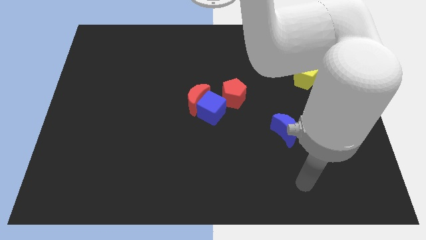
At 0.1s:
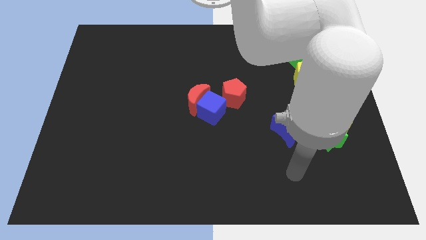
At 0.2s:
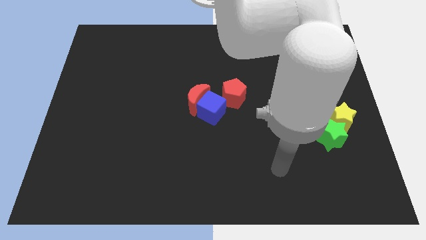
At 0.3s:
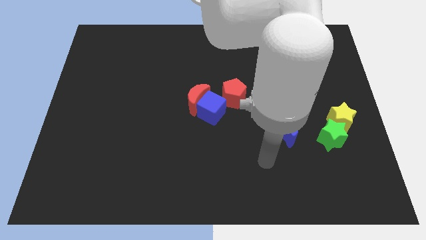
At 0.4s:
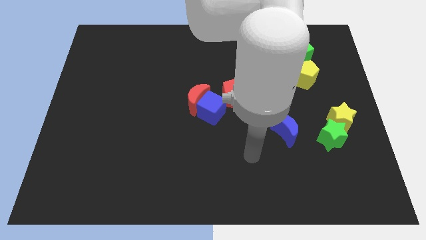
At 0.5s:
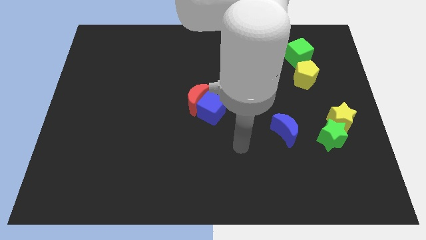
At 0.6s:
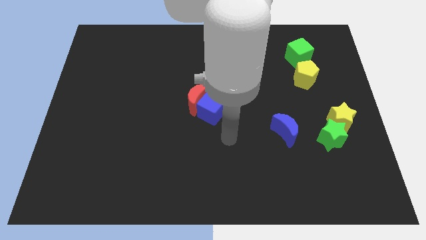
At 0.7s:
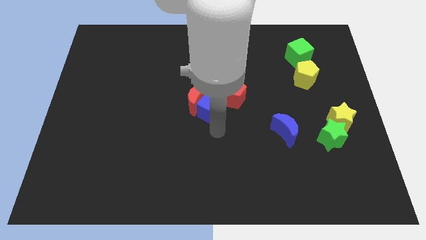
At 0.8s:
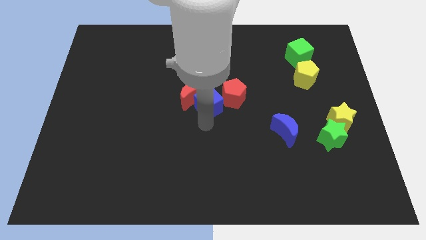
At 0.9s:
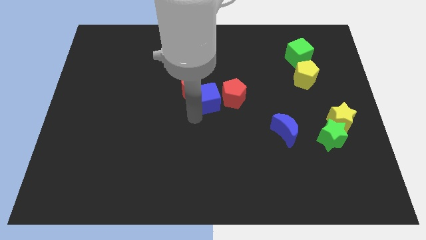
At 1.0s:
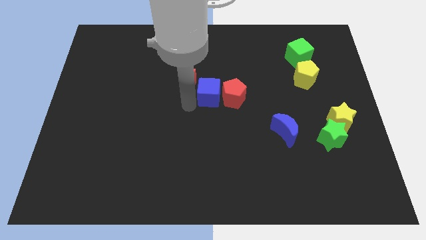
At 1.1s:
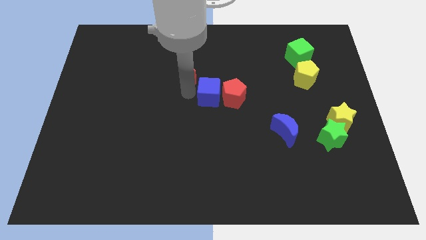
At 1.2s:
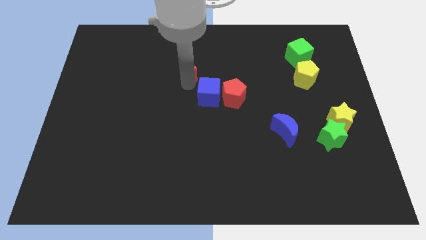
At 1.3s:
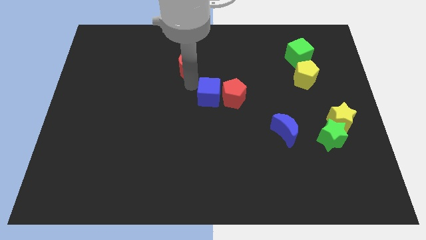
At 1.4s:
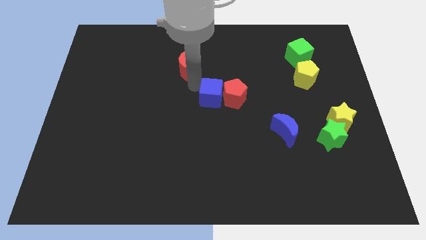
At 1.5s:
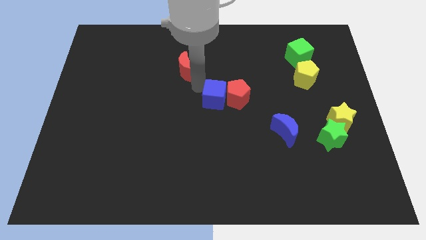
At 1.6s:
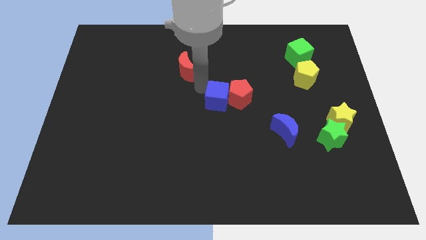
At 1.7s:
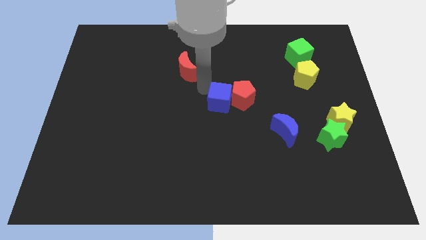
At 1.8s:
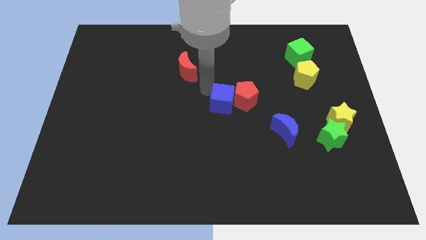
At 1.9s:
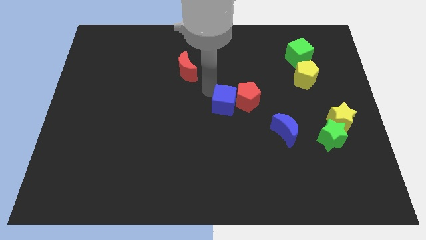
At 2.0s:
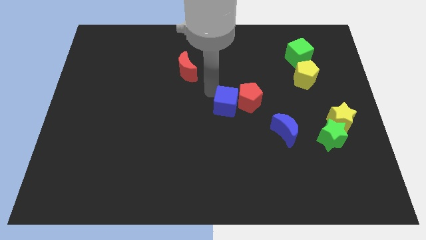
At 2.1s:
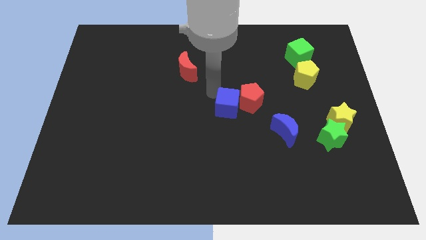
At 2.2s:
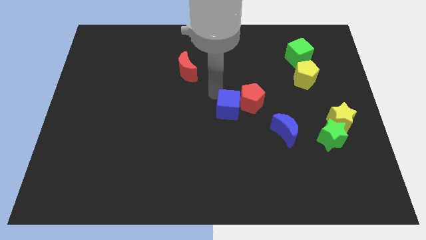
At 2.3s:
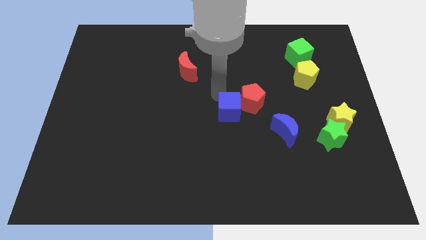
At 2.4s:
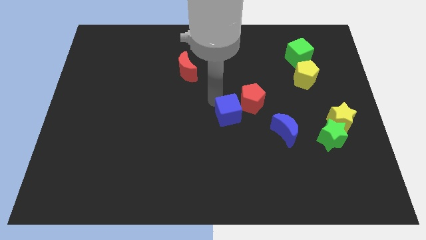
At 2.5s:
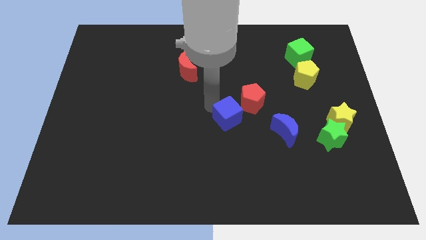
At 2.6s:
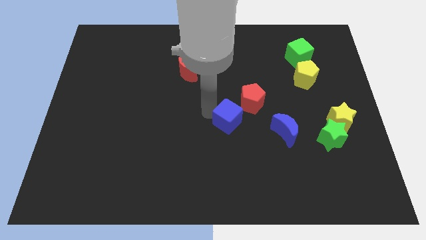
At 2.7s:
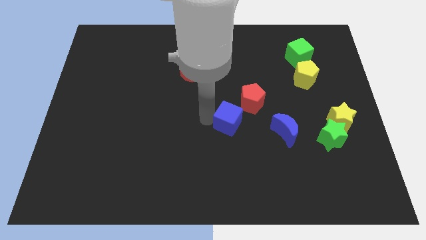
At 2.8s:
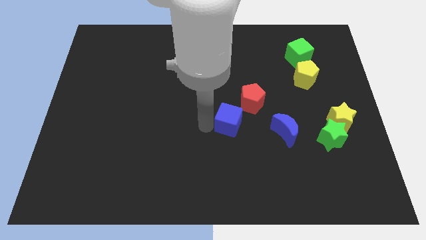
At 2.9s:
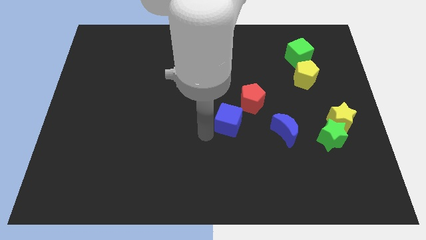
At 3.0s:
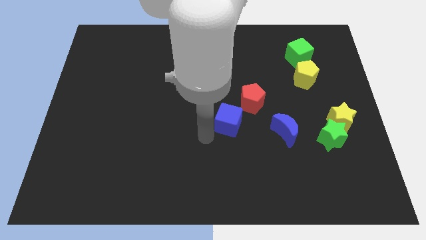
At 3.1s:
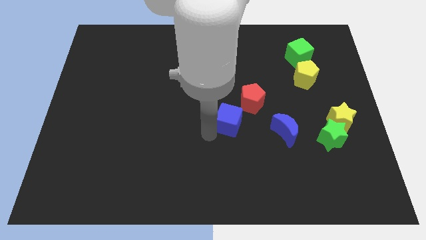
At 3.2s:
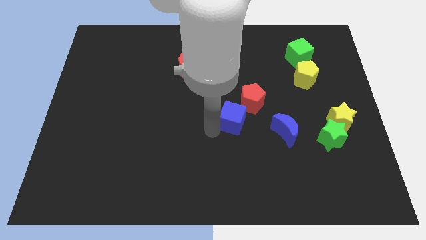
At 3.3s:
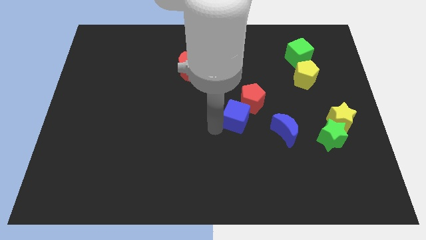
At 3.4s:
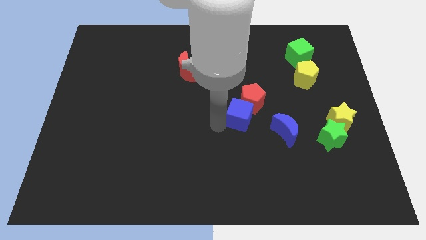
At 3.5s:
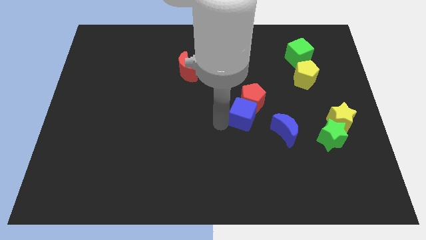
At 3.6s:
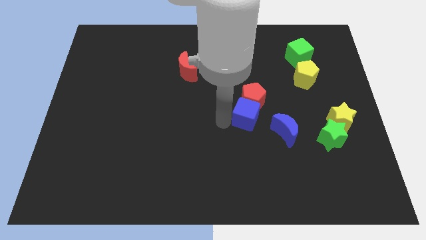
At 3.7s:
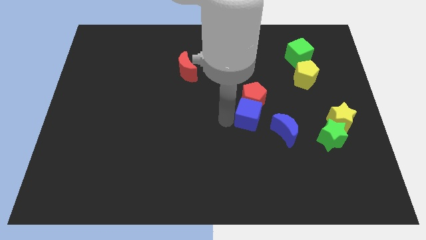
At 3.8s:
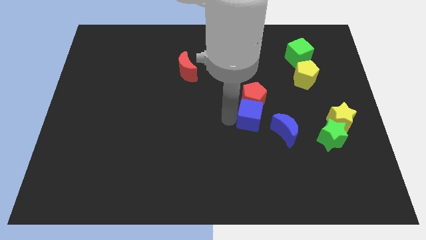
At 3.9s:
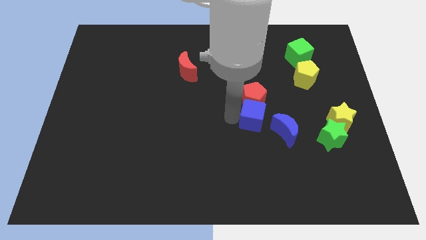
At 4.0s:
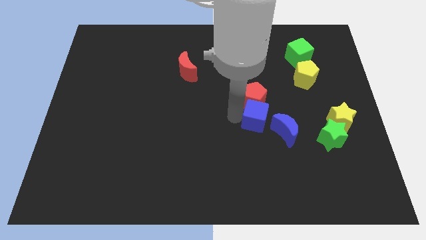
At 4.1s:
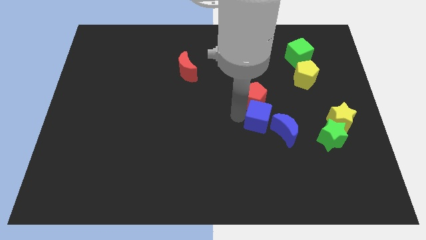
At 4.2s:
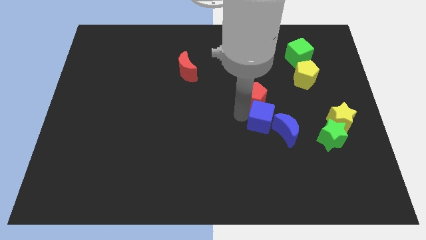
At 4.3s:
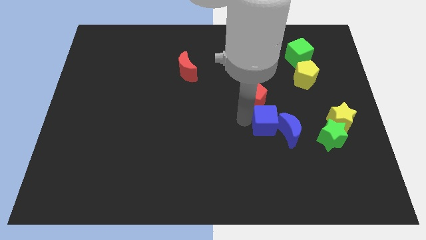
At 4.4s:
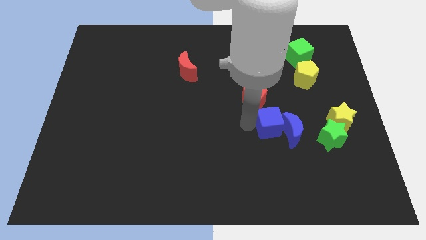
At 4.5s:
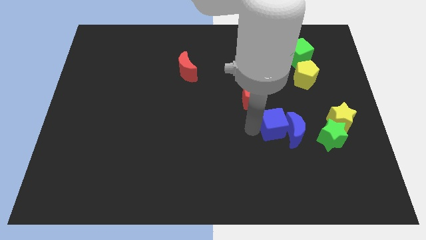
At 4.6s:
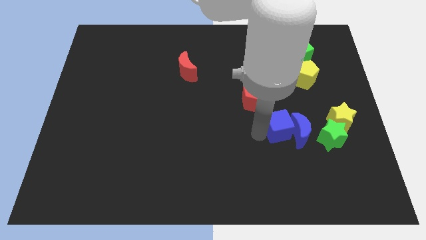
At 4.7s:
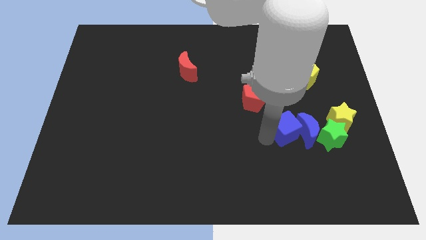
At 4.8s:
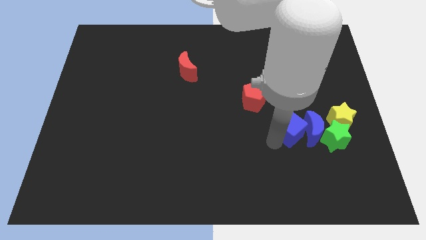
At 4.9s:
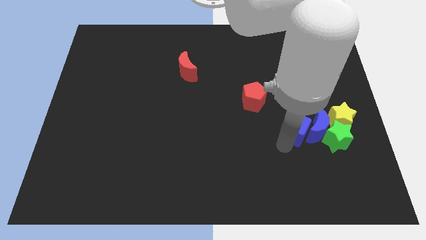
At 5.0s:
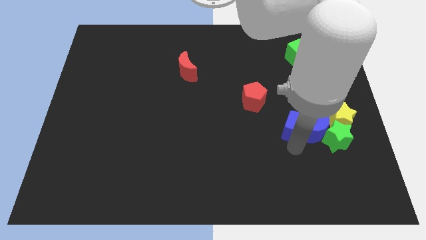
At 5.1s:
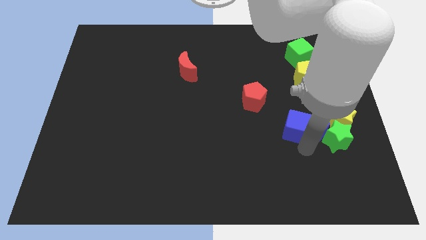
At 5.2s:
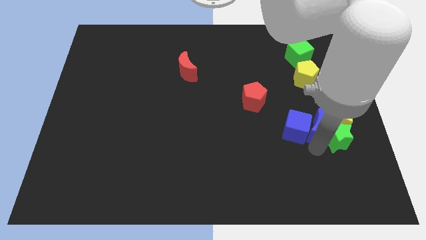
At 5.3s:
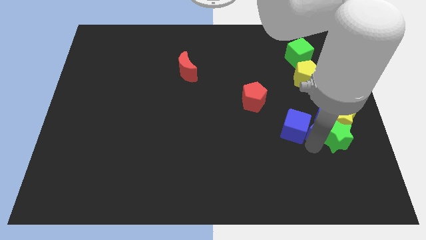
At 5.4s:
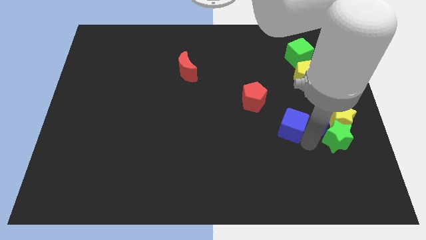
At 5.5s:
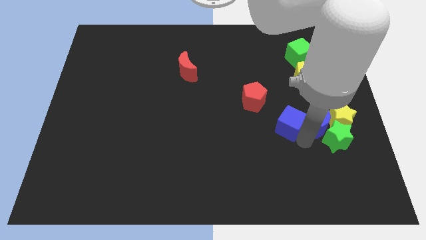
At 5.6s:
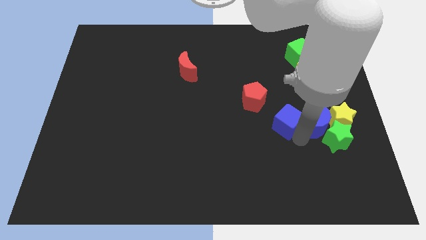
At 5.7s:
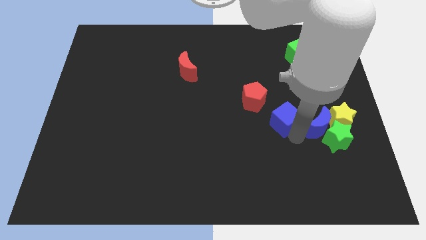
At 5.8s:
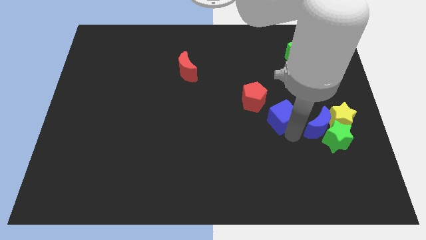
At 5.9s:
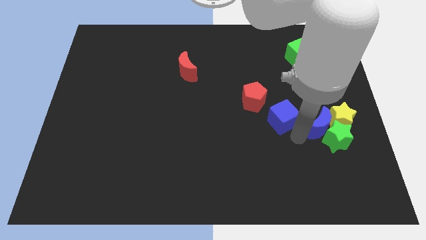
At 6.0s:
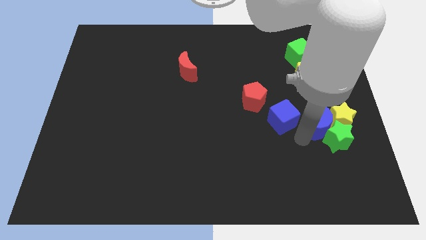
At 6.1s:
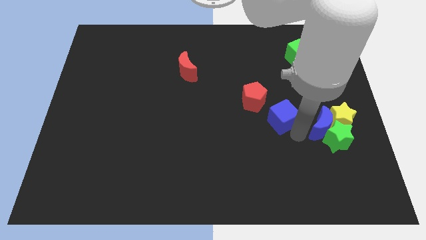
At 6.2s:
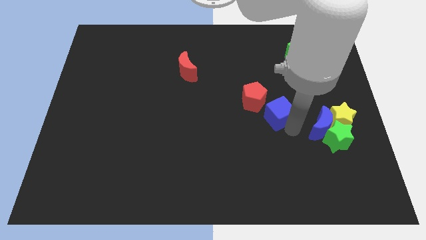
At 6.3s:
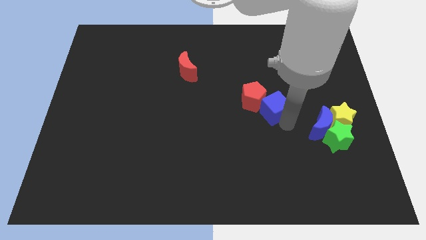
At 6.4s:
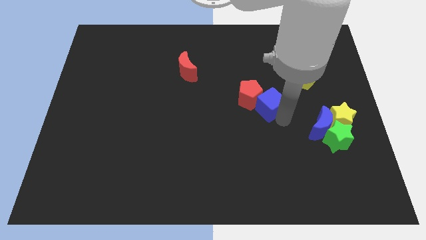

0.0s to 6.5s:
slightly push the blue cube up and then to the right

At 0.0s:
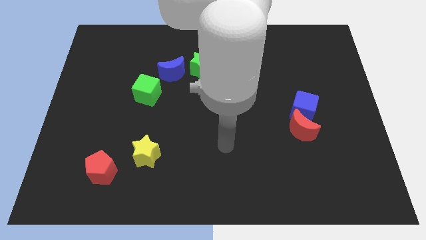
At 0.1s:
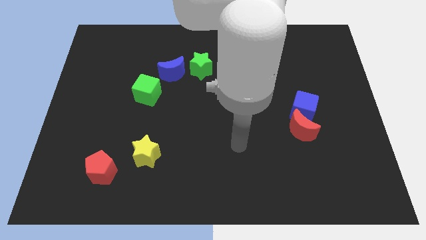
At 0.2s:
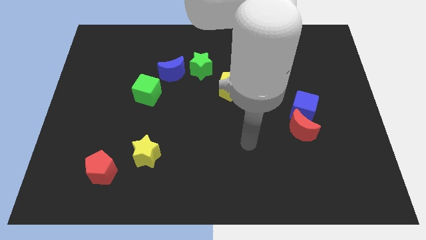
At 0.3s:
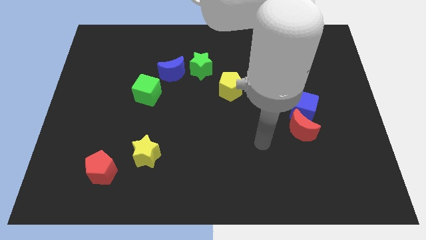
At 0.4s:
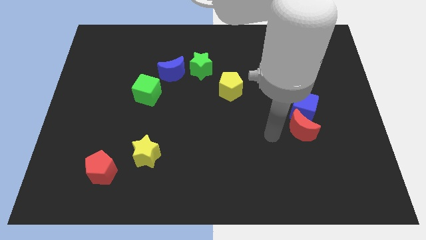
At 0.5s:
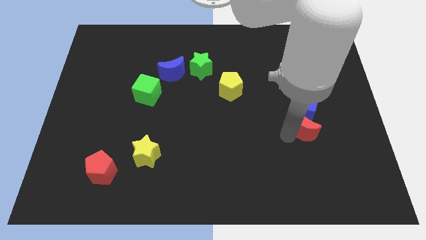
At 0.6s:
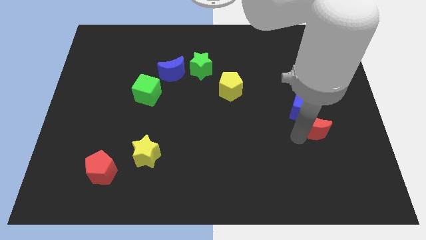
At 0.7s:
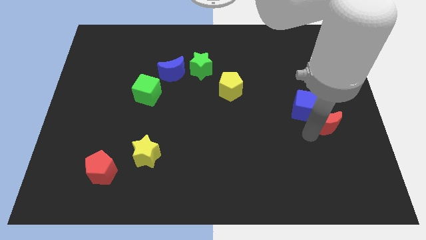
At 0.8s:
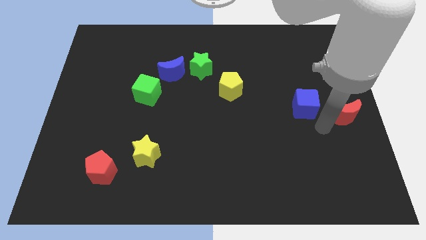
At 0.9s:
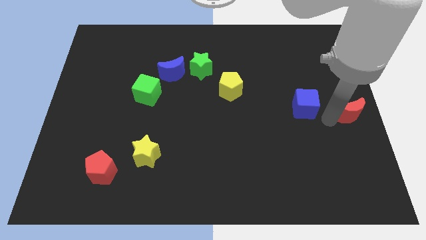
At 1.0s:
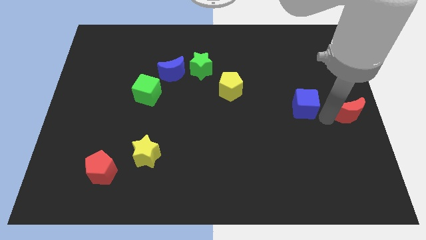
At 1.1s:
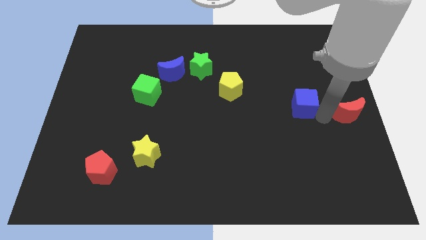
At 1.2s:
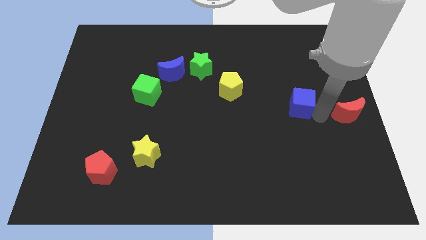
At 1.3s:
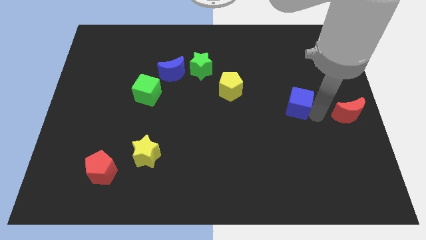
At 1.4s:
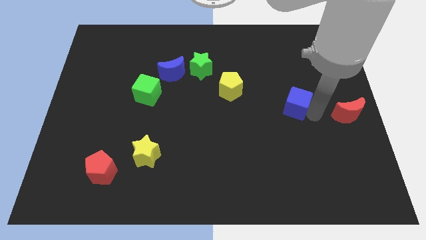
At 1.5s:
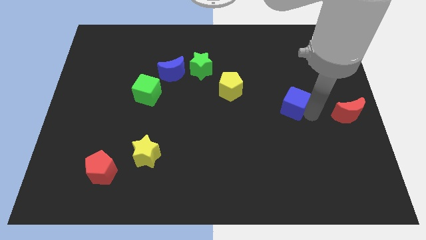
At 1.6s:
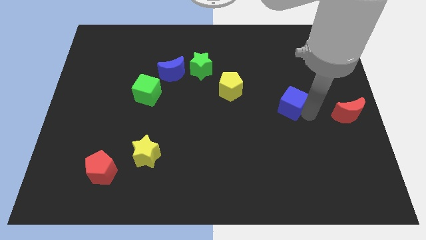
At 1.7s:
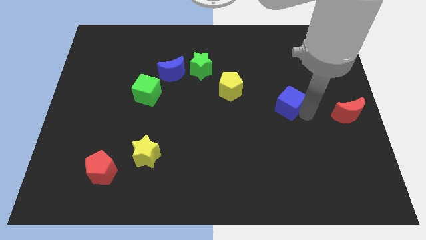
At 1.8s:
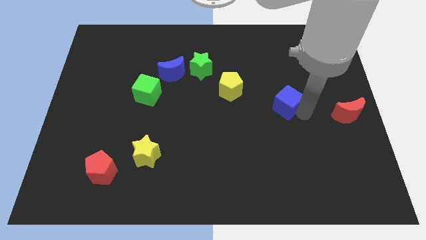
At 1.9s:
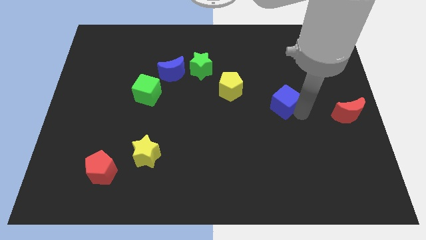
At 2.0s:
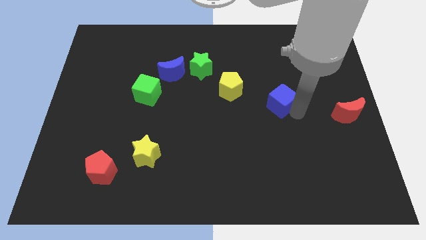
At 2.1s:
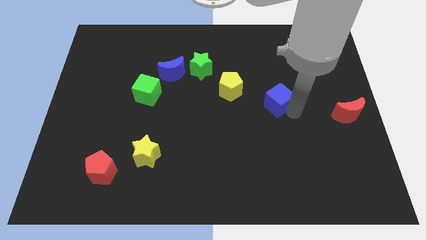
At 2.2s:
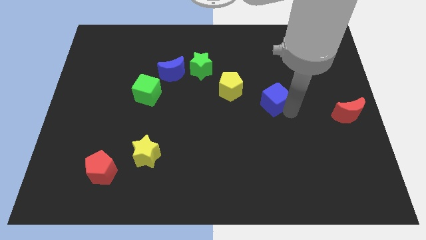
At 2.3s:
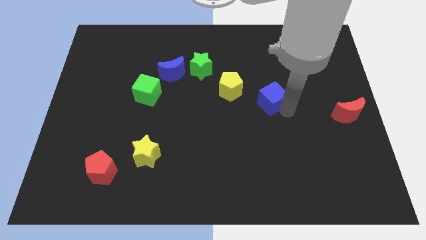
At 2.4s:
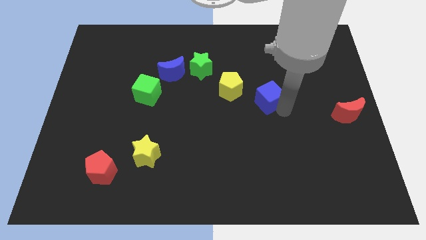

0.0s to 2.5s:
slightly move the blue cube up and then to the left
